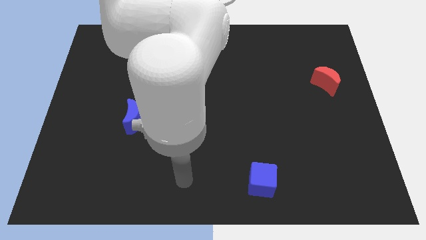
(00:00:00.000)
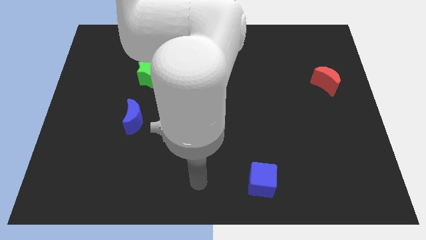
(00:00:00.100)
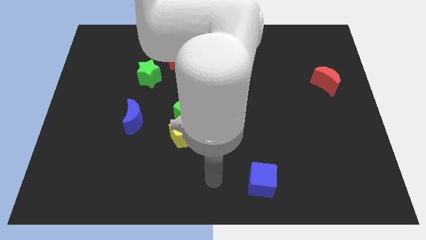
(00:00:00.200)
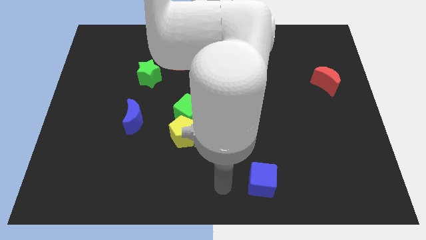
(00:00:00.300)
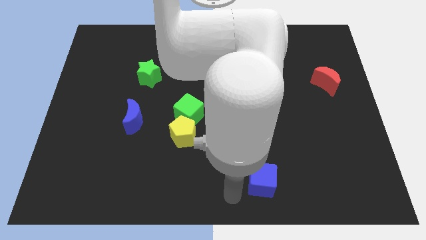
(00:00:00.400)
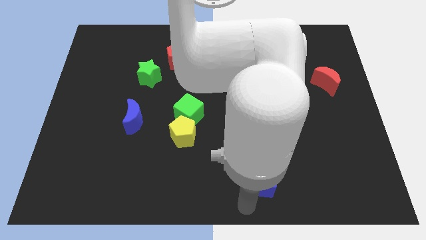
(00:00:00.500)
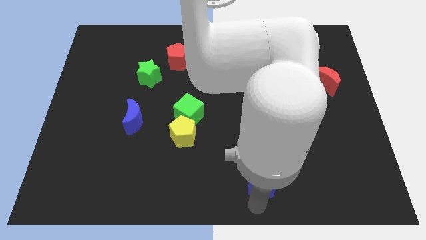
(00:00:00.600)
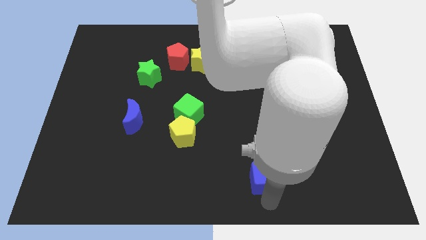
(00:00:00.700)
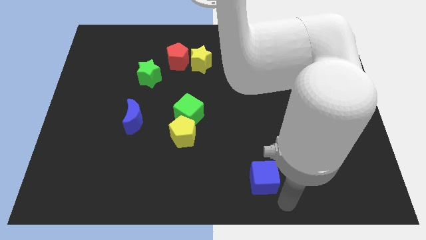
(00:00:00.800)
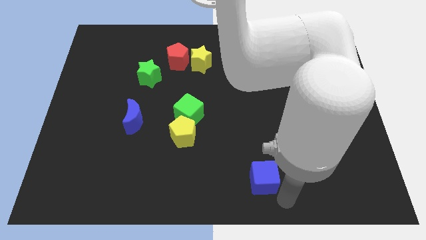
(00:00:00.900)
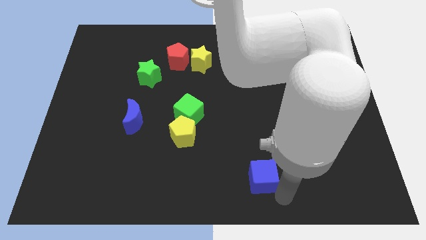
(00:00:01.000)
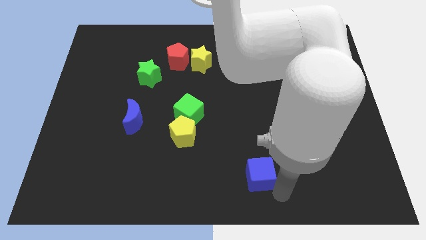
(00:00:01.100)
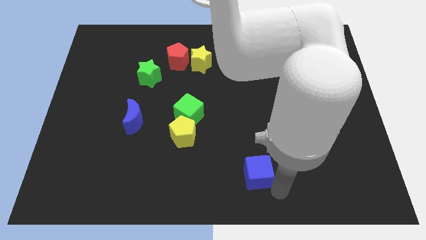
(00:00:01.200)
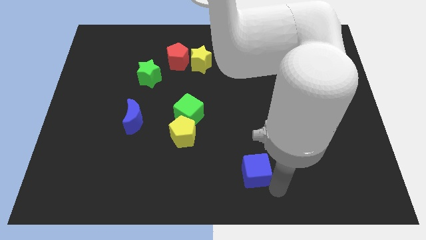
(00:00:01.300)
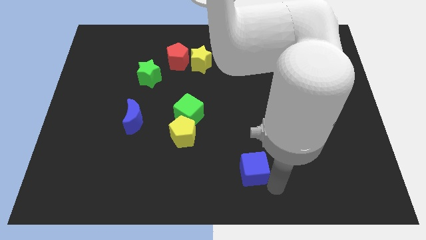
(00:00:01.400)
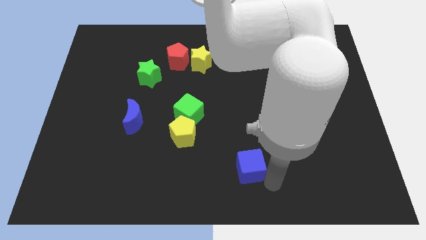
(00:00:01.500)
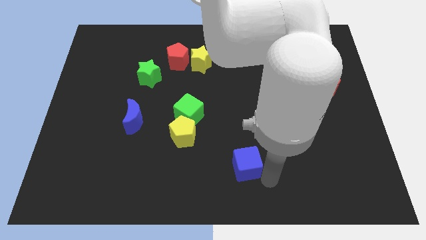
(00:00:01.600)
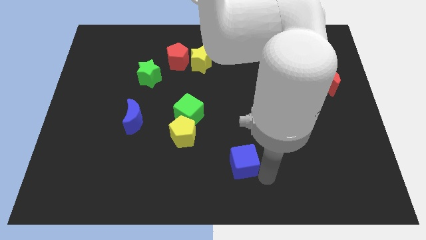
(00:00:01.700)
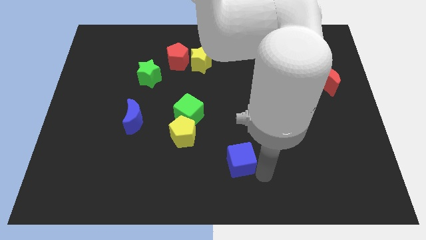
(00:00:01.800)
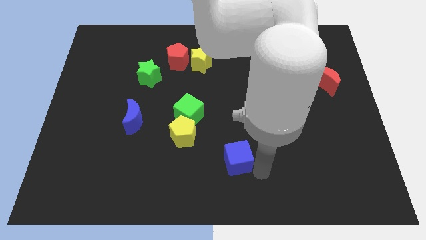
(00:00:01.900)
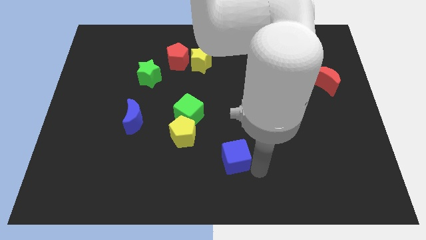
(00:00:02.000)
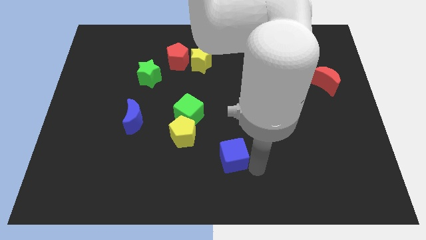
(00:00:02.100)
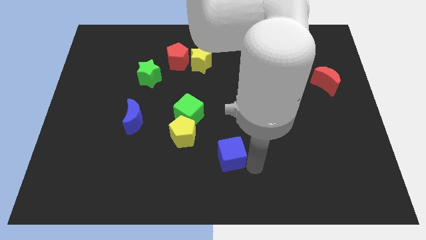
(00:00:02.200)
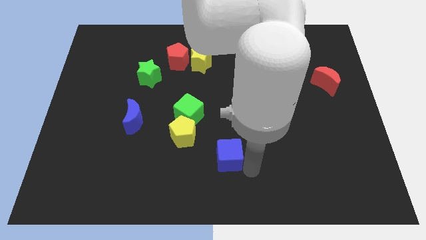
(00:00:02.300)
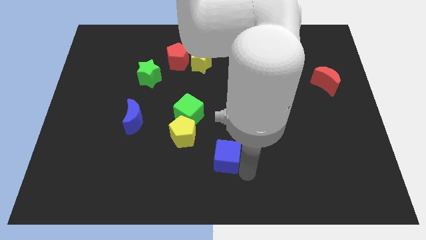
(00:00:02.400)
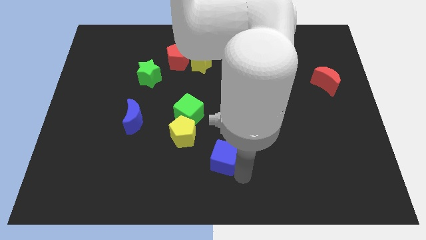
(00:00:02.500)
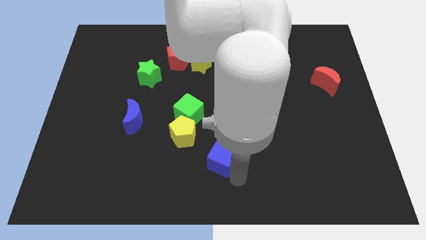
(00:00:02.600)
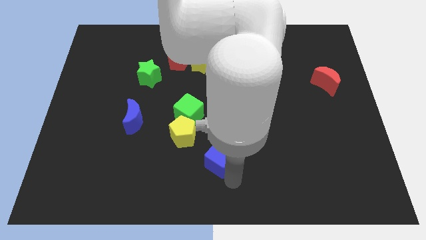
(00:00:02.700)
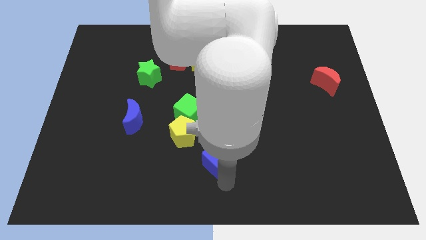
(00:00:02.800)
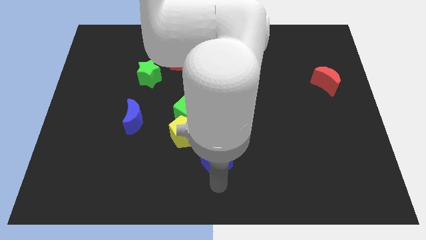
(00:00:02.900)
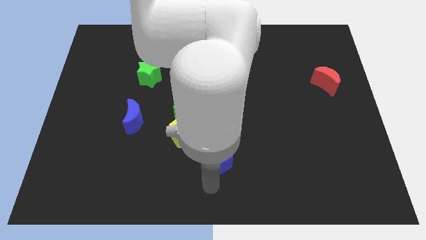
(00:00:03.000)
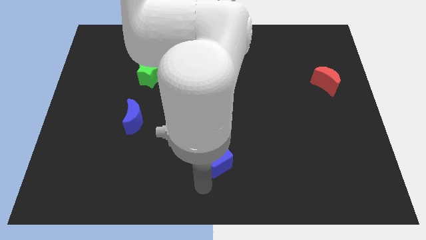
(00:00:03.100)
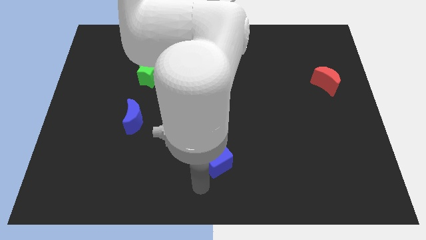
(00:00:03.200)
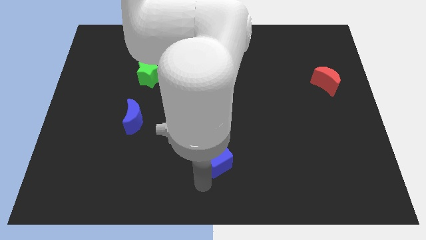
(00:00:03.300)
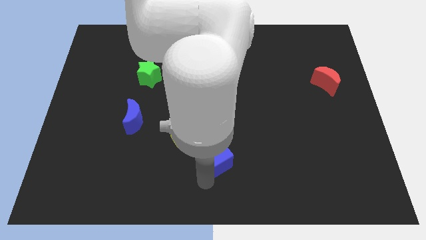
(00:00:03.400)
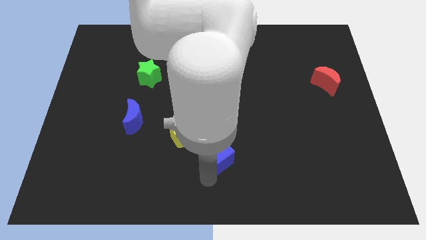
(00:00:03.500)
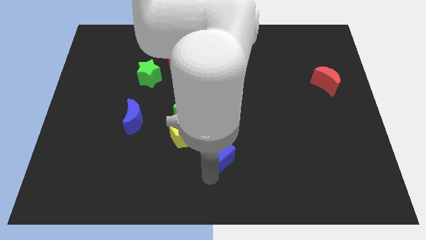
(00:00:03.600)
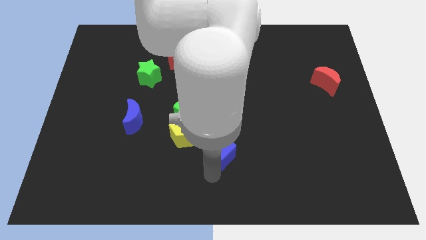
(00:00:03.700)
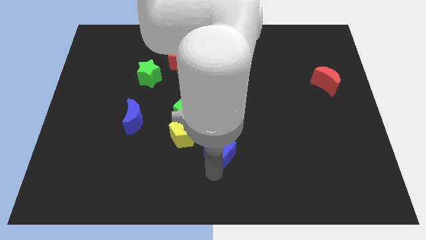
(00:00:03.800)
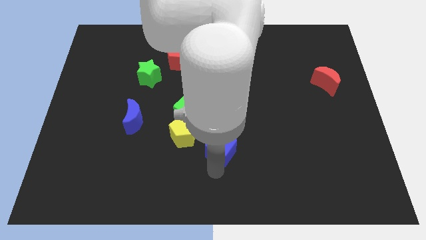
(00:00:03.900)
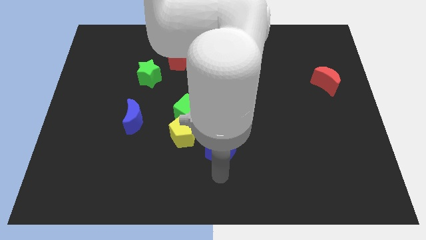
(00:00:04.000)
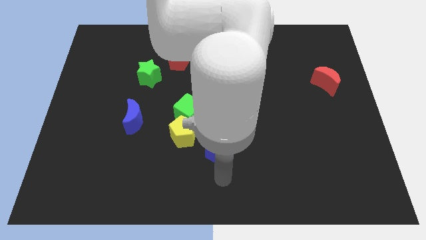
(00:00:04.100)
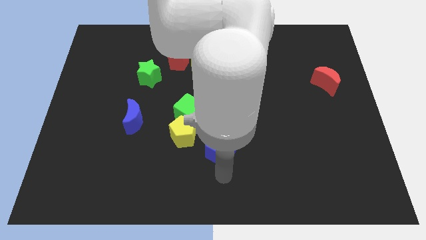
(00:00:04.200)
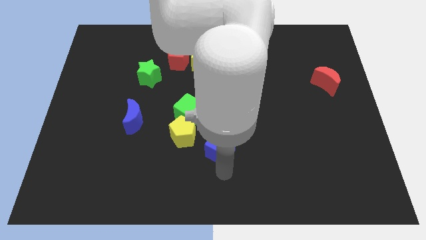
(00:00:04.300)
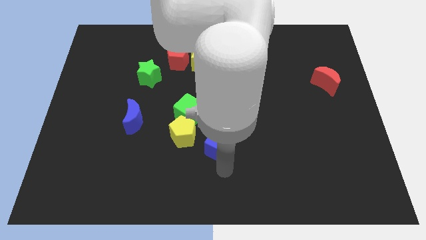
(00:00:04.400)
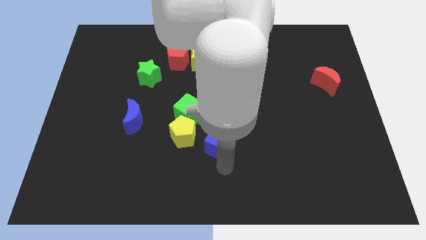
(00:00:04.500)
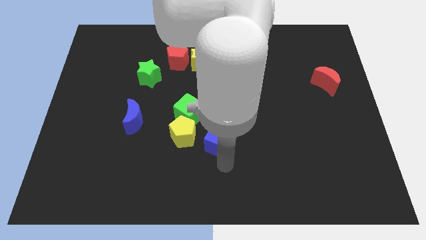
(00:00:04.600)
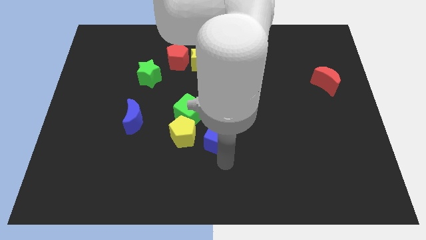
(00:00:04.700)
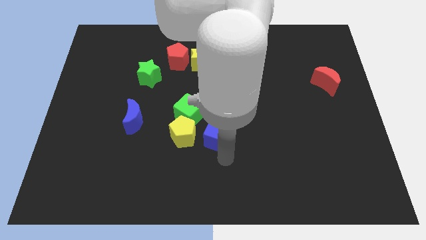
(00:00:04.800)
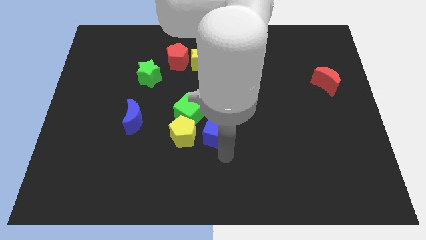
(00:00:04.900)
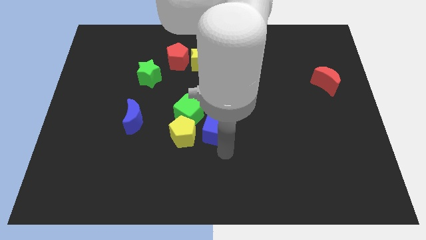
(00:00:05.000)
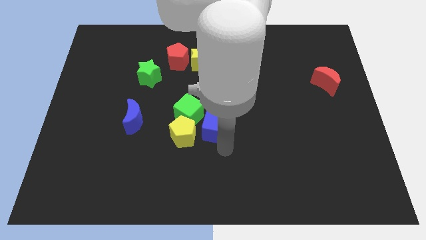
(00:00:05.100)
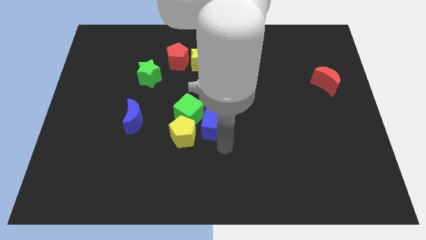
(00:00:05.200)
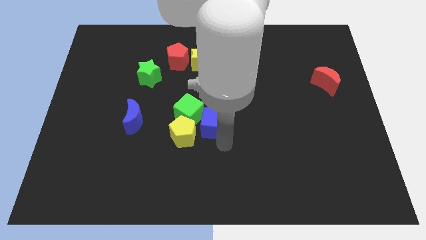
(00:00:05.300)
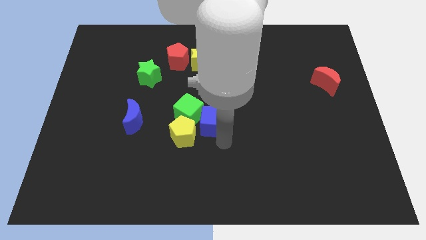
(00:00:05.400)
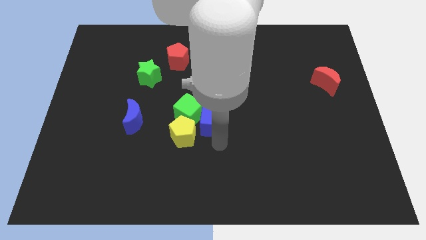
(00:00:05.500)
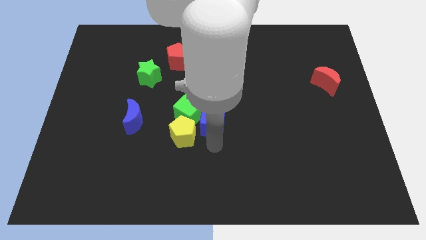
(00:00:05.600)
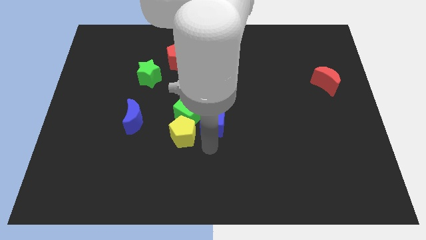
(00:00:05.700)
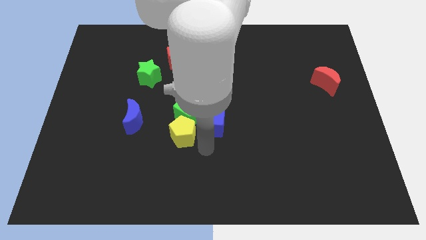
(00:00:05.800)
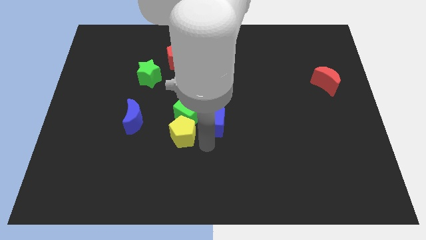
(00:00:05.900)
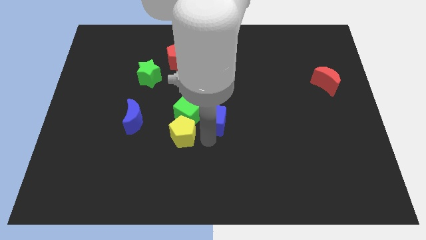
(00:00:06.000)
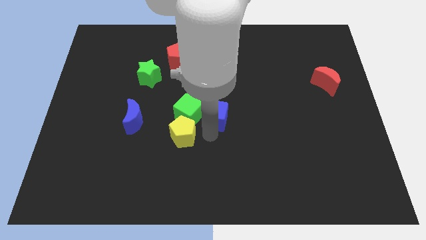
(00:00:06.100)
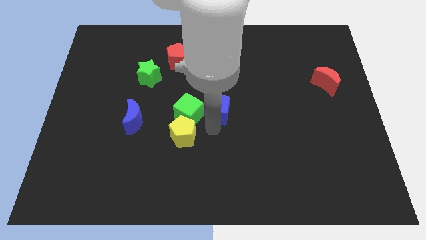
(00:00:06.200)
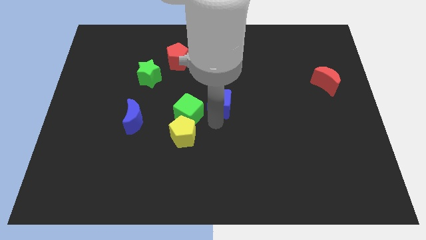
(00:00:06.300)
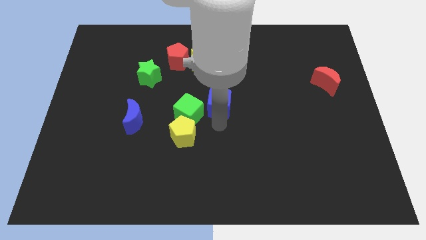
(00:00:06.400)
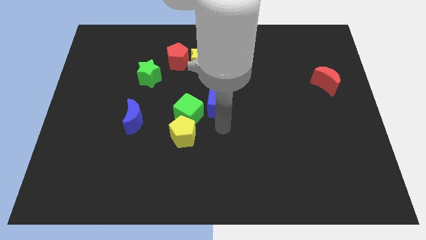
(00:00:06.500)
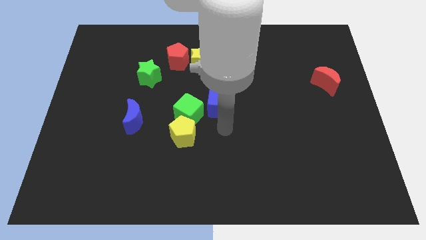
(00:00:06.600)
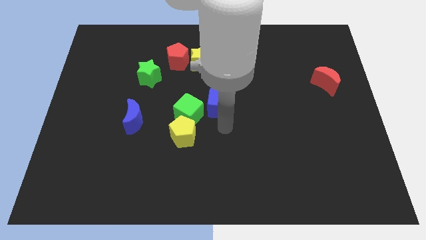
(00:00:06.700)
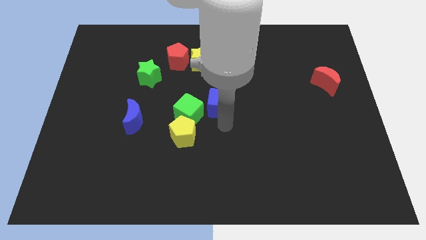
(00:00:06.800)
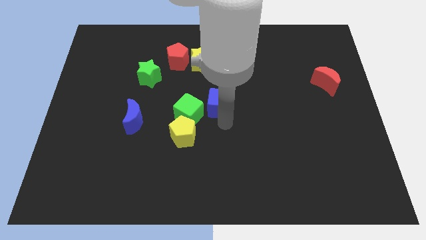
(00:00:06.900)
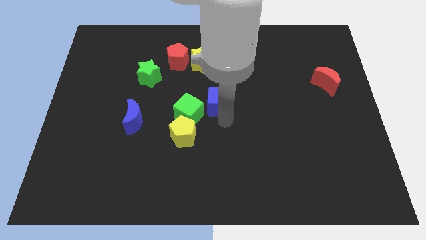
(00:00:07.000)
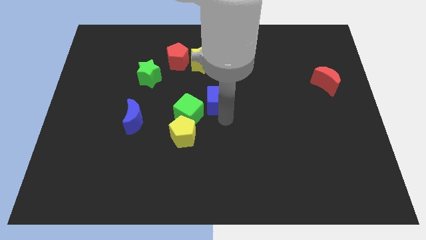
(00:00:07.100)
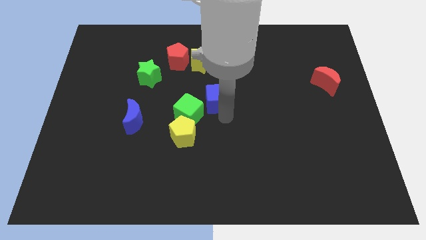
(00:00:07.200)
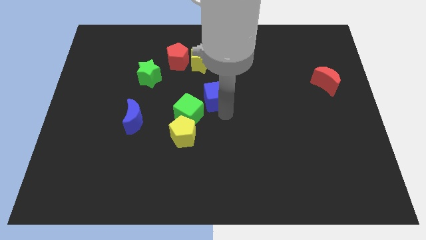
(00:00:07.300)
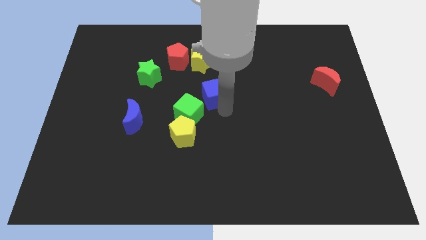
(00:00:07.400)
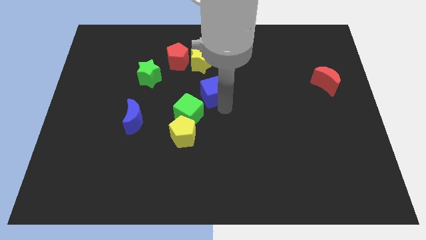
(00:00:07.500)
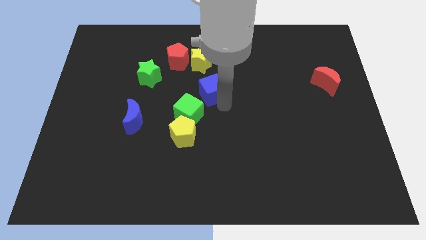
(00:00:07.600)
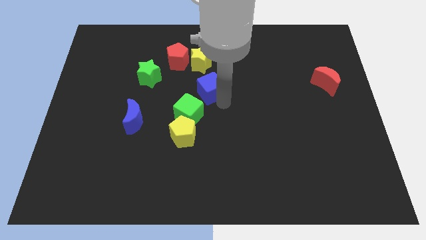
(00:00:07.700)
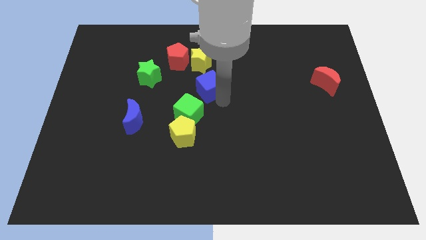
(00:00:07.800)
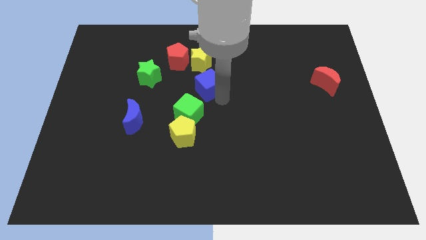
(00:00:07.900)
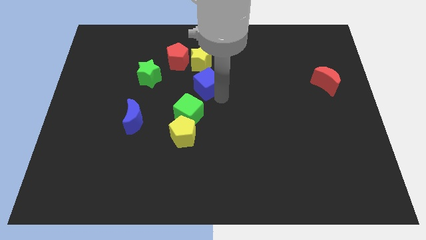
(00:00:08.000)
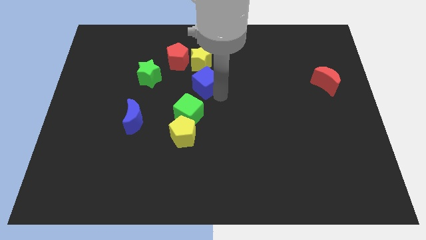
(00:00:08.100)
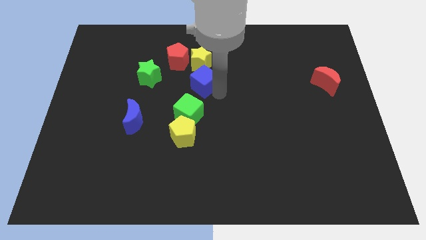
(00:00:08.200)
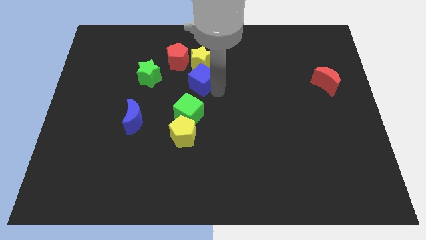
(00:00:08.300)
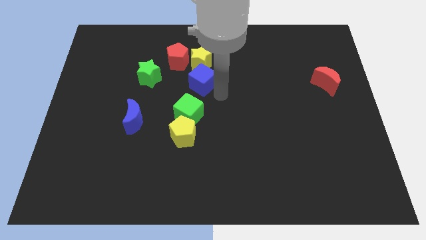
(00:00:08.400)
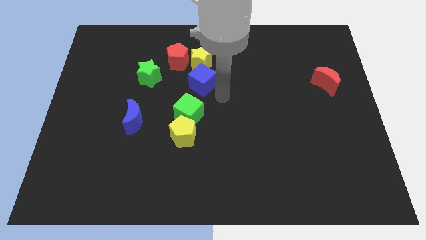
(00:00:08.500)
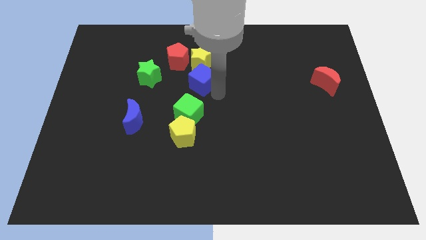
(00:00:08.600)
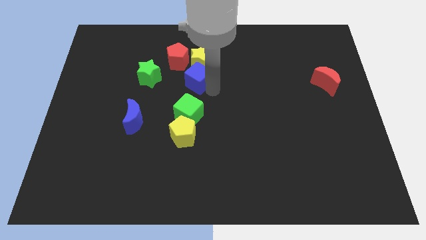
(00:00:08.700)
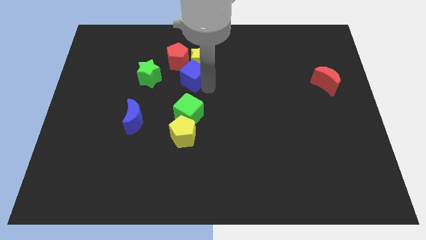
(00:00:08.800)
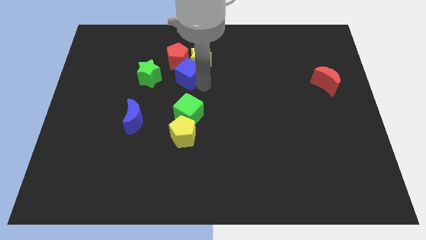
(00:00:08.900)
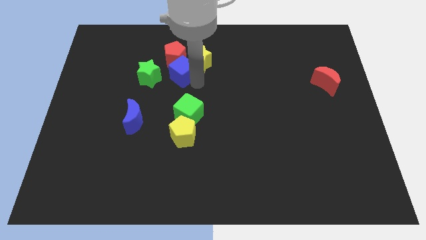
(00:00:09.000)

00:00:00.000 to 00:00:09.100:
move the blue cube towards the red pentagon
